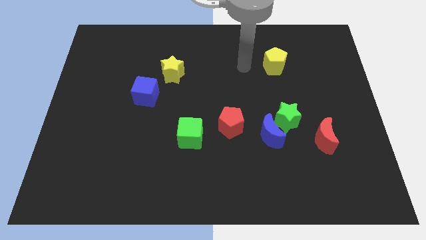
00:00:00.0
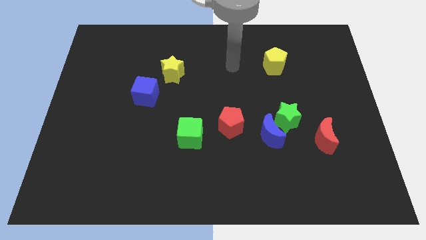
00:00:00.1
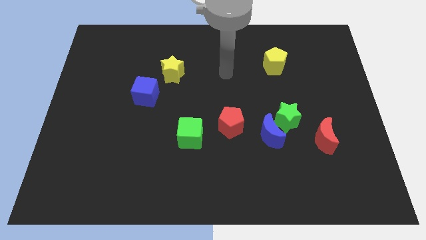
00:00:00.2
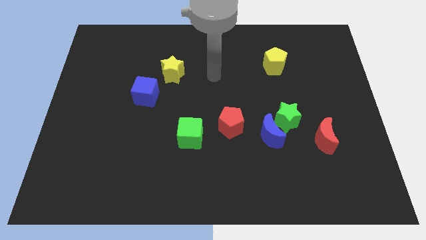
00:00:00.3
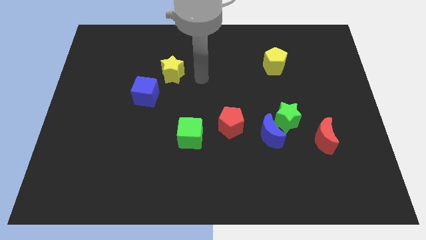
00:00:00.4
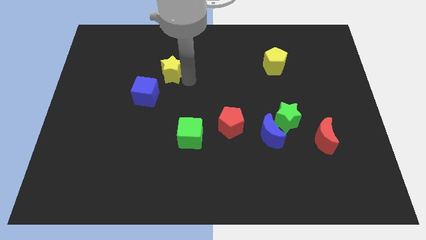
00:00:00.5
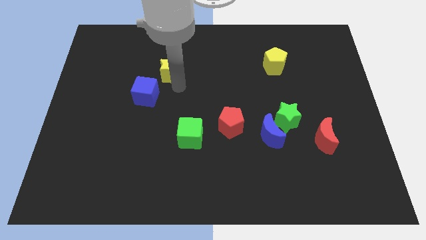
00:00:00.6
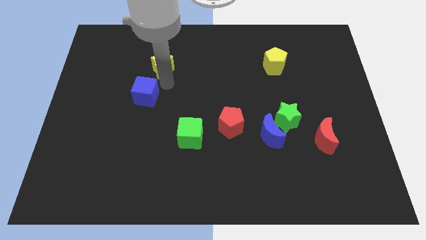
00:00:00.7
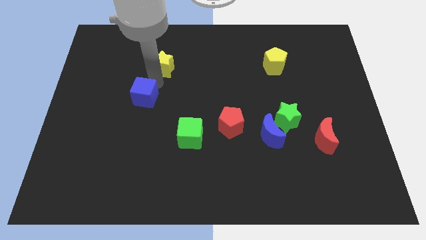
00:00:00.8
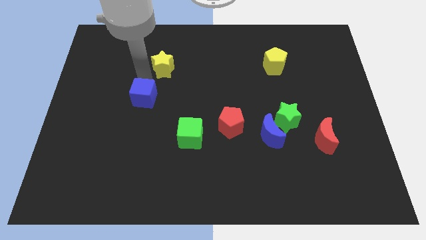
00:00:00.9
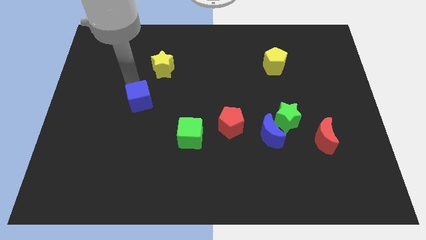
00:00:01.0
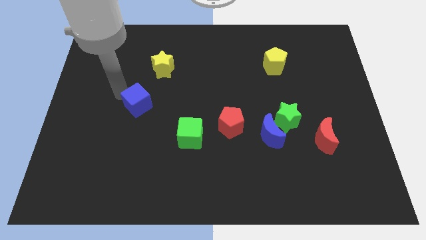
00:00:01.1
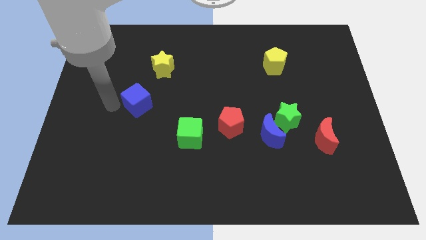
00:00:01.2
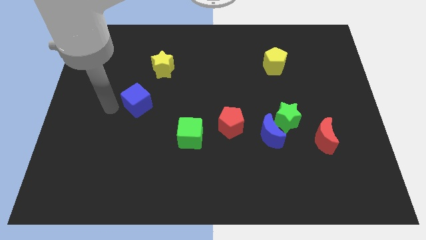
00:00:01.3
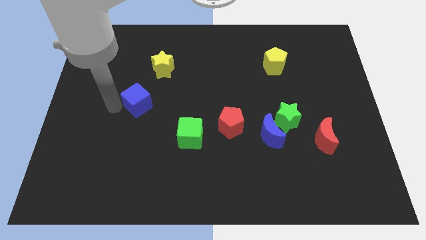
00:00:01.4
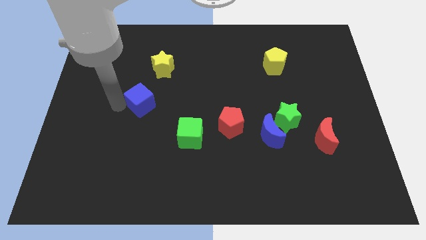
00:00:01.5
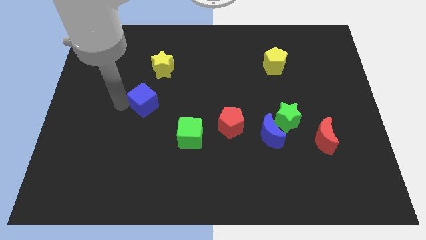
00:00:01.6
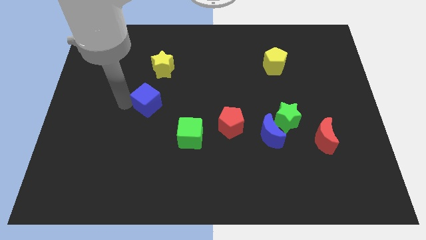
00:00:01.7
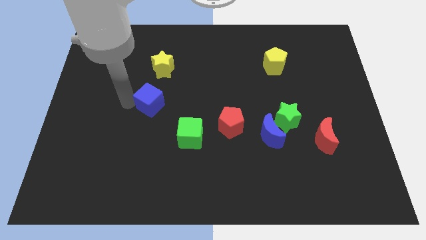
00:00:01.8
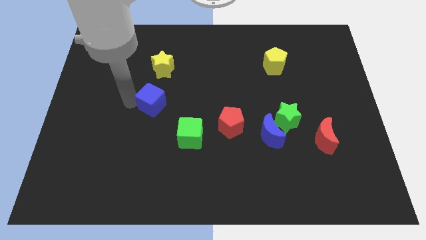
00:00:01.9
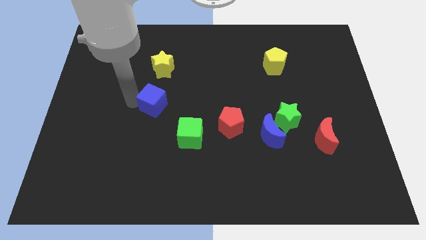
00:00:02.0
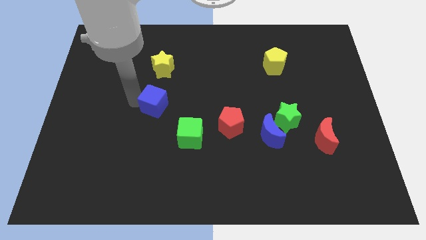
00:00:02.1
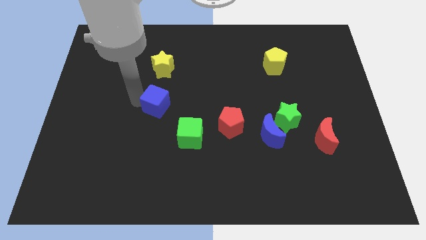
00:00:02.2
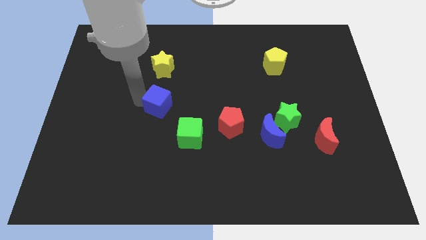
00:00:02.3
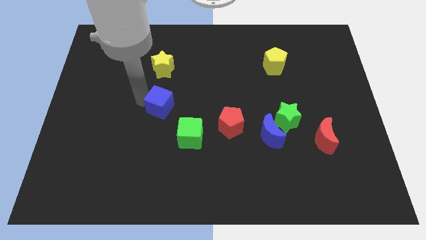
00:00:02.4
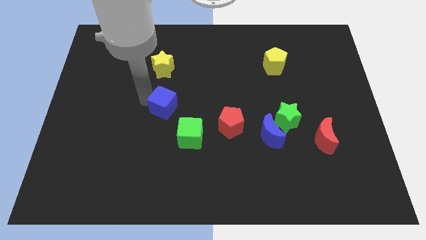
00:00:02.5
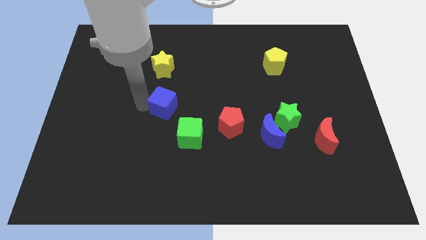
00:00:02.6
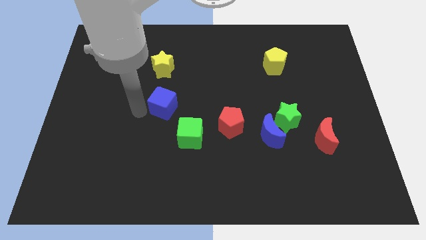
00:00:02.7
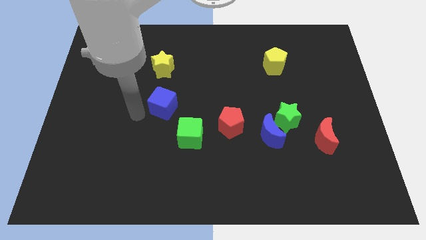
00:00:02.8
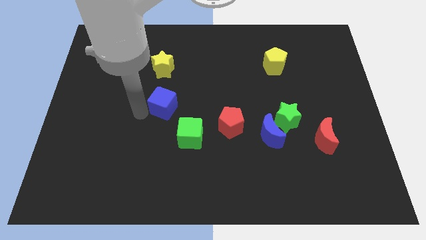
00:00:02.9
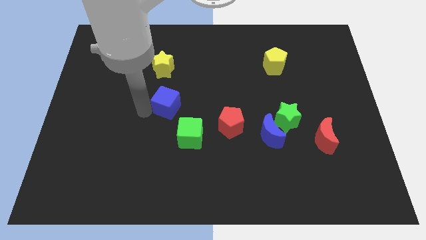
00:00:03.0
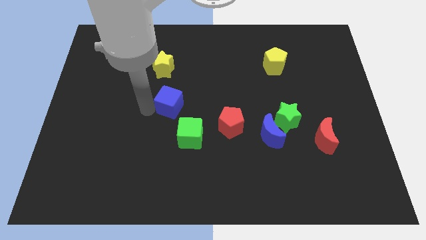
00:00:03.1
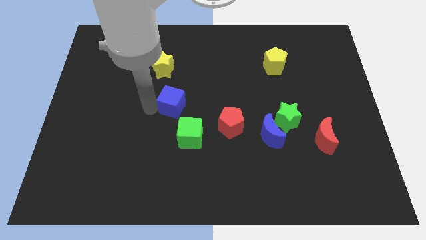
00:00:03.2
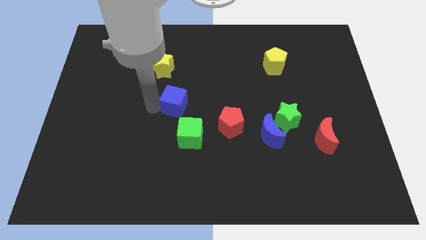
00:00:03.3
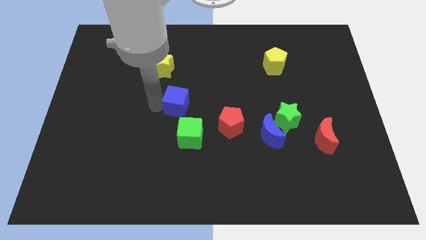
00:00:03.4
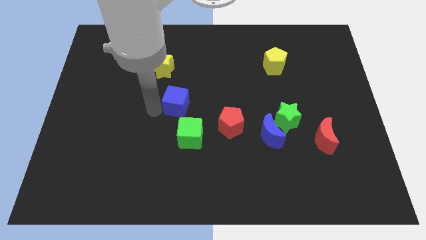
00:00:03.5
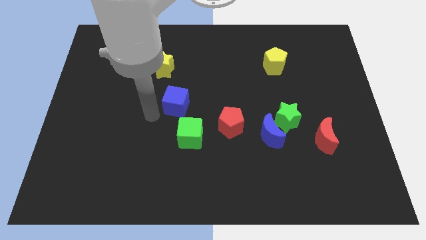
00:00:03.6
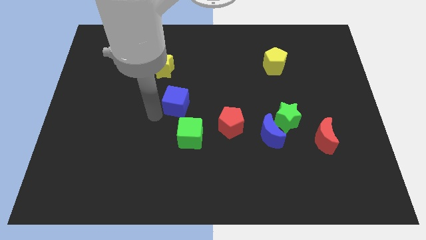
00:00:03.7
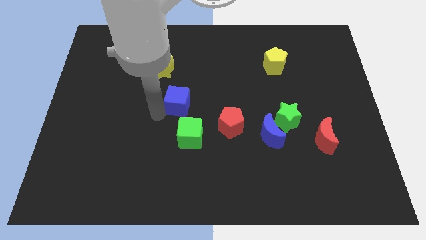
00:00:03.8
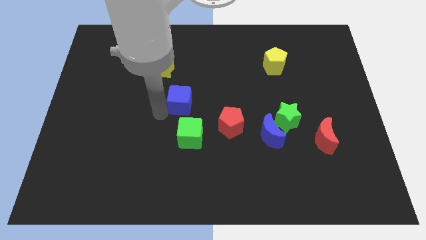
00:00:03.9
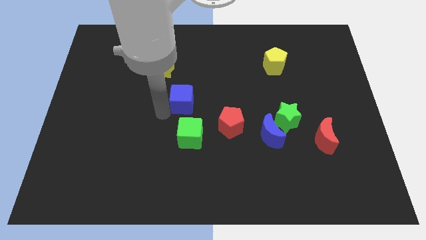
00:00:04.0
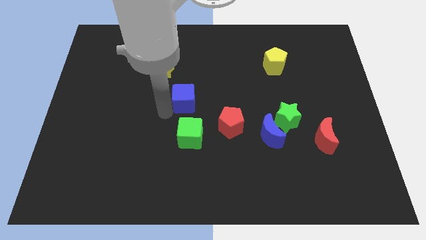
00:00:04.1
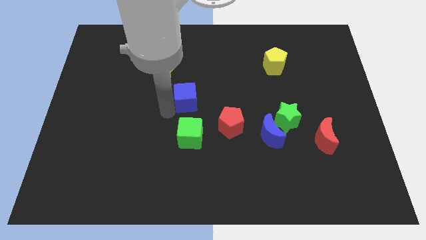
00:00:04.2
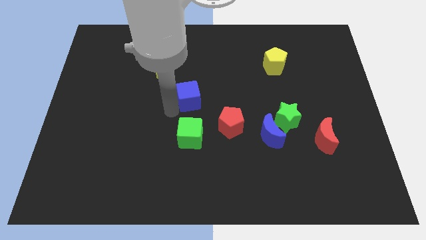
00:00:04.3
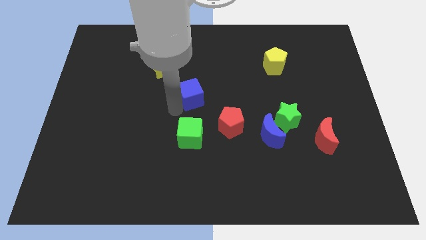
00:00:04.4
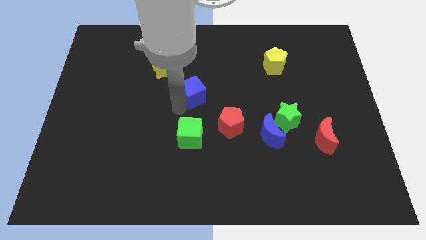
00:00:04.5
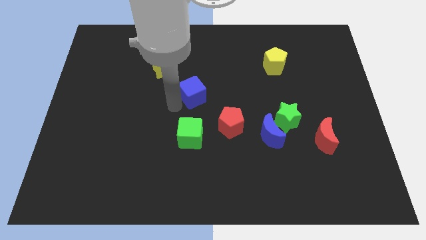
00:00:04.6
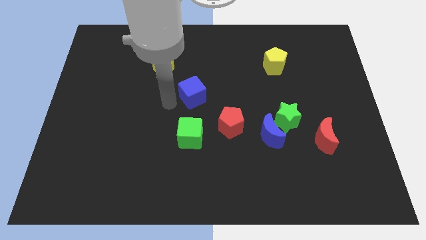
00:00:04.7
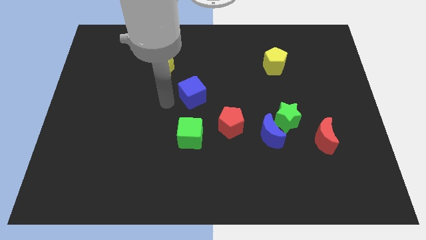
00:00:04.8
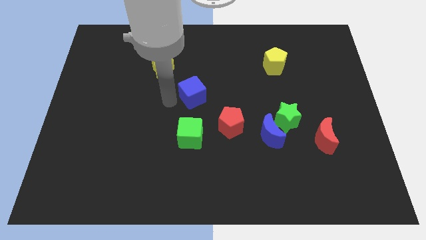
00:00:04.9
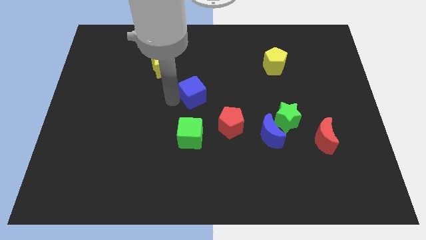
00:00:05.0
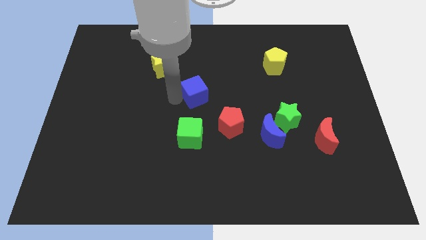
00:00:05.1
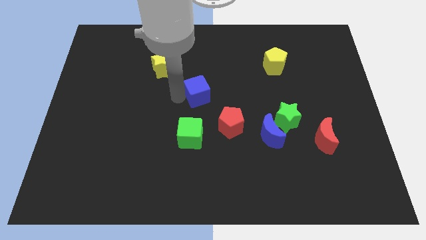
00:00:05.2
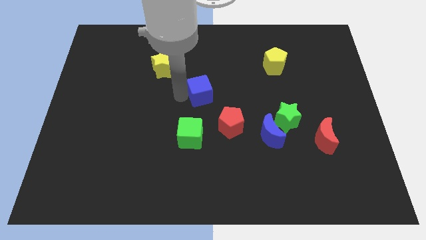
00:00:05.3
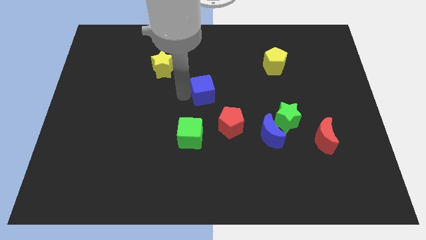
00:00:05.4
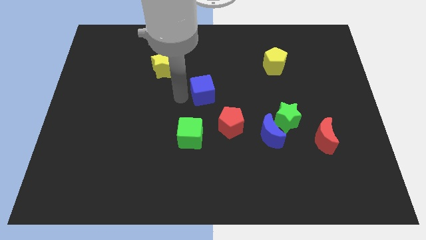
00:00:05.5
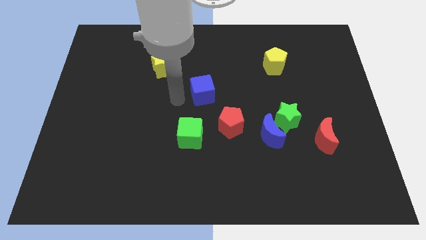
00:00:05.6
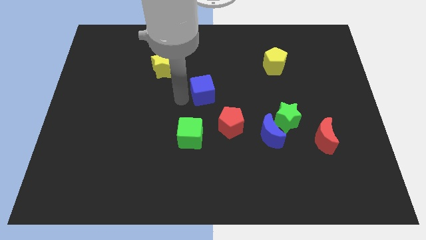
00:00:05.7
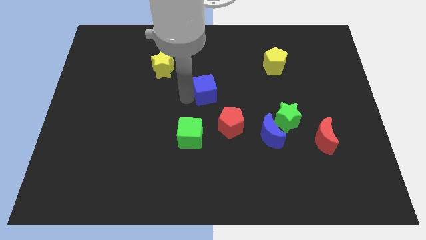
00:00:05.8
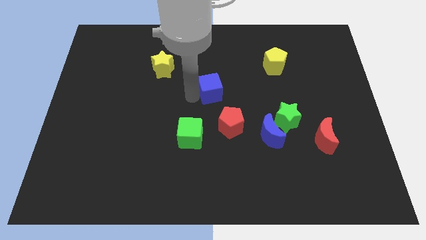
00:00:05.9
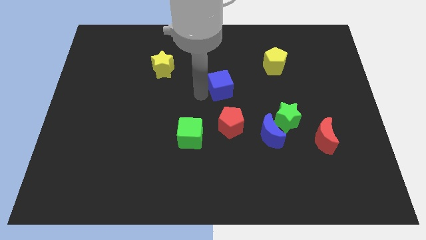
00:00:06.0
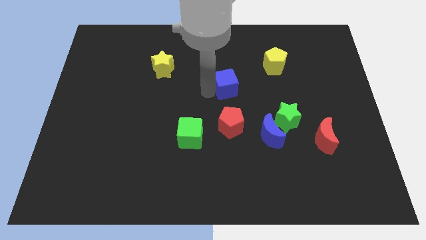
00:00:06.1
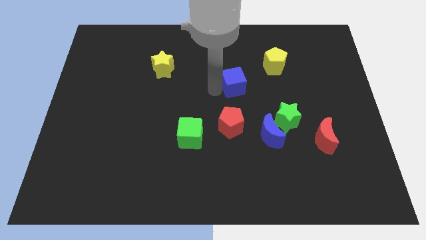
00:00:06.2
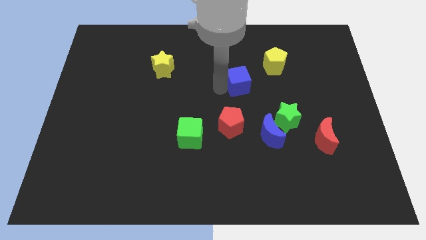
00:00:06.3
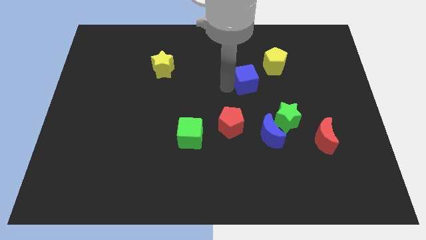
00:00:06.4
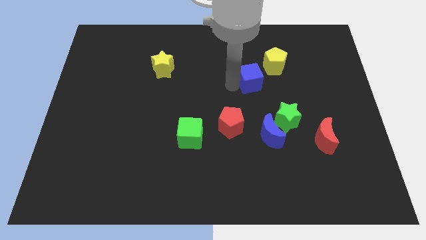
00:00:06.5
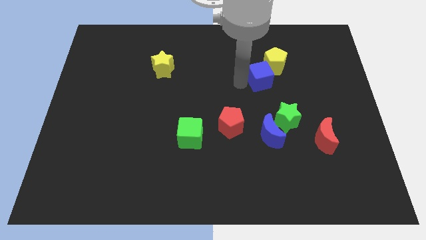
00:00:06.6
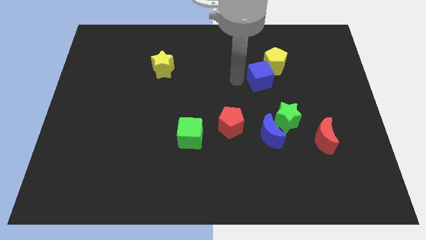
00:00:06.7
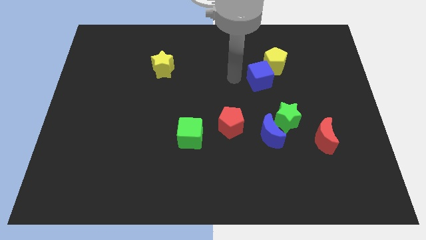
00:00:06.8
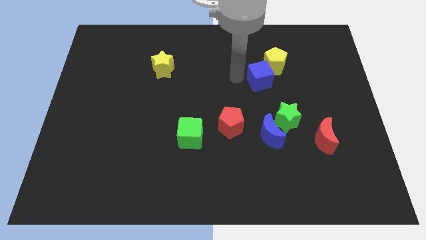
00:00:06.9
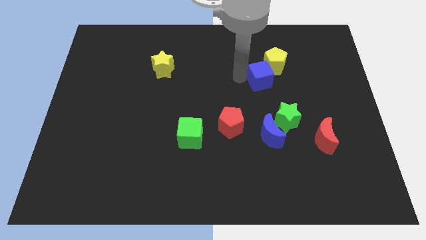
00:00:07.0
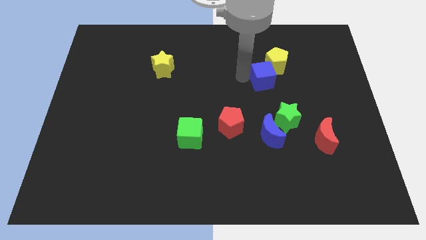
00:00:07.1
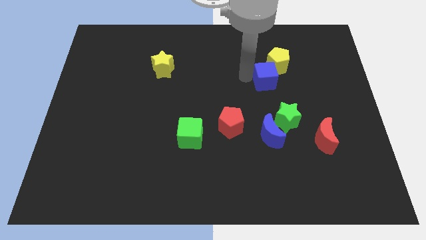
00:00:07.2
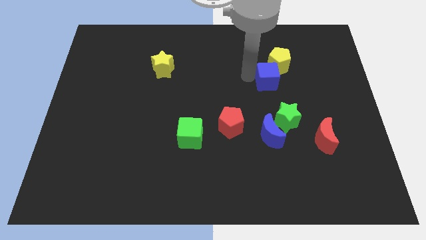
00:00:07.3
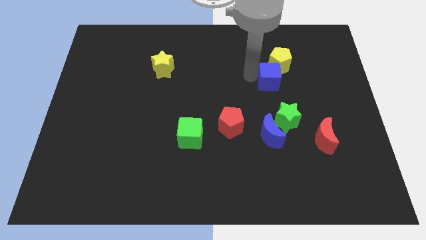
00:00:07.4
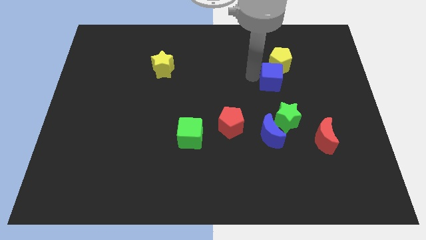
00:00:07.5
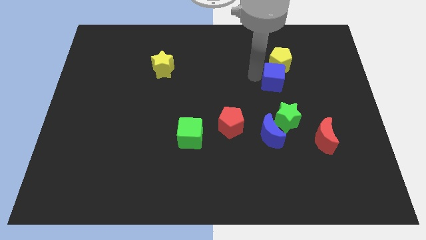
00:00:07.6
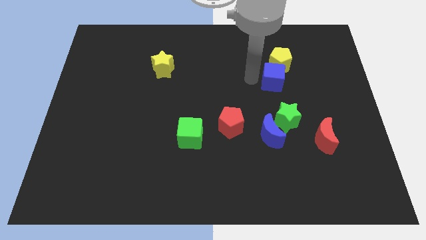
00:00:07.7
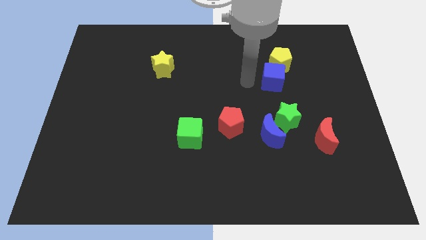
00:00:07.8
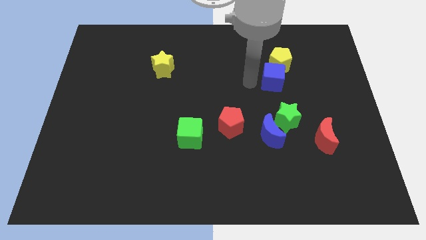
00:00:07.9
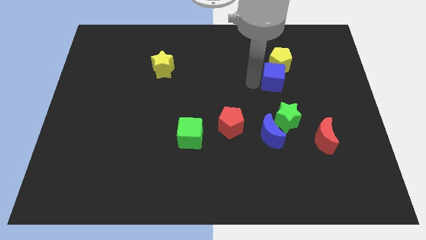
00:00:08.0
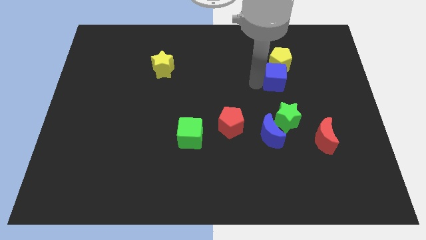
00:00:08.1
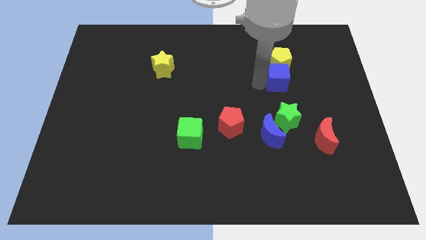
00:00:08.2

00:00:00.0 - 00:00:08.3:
move the blue cube diagonally down and to the right of the yellow pentagon

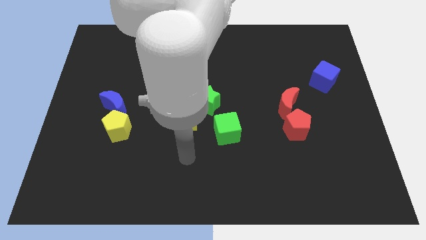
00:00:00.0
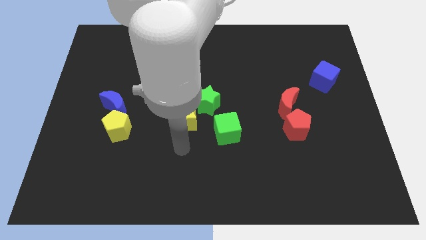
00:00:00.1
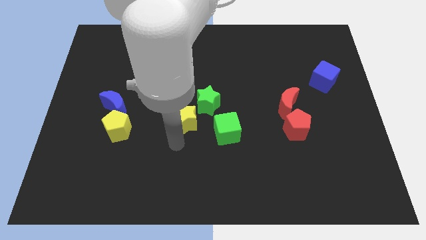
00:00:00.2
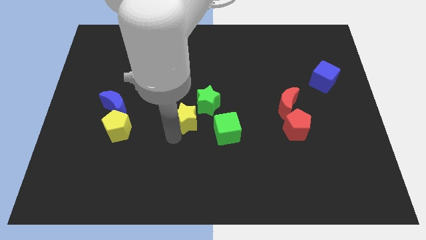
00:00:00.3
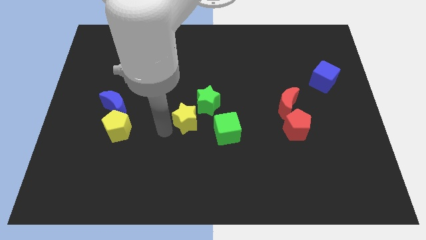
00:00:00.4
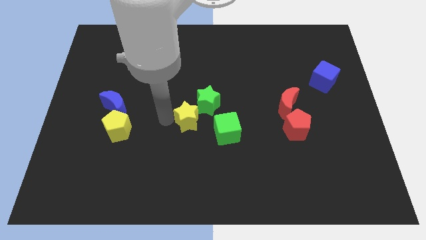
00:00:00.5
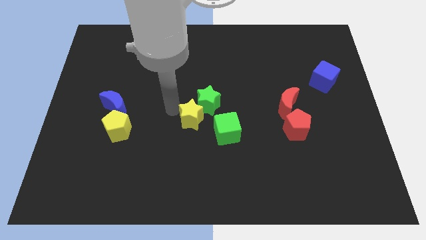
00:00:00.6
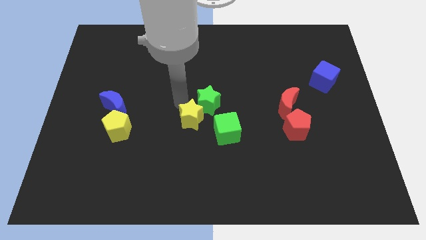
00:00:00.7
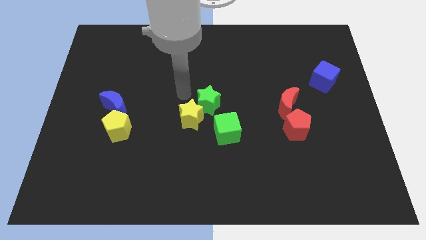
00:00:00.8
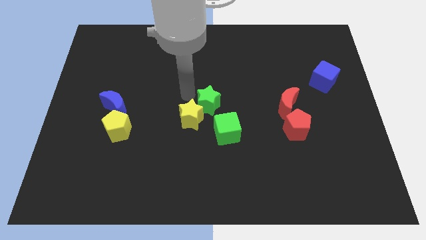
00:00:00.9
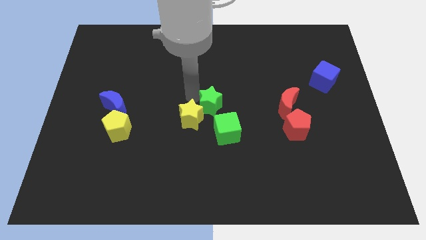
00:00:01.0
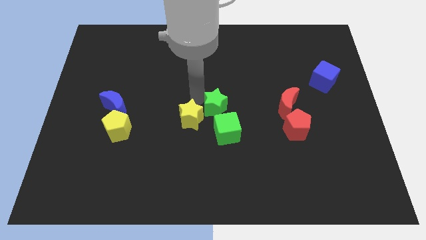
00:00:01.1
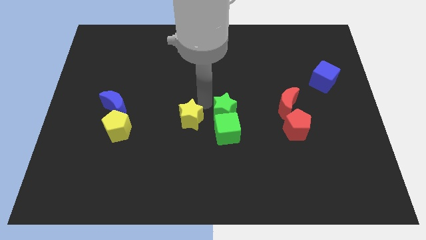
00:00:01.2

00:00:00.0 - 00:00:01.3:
put the green star to the top right of the green cube
